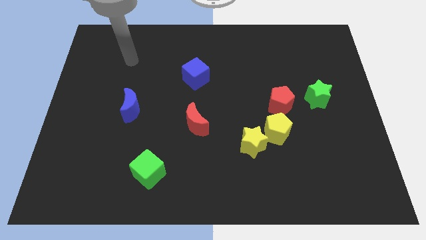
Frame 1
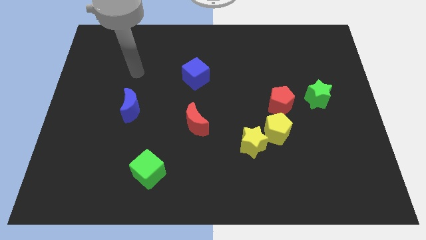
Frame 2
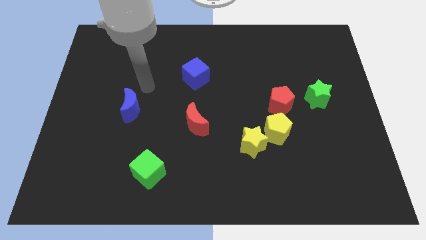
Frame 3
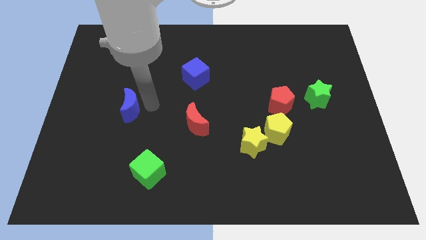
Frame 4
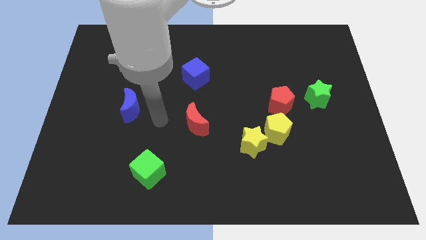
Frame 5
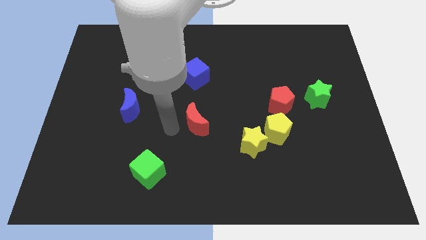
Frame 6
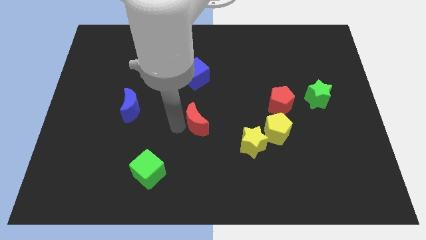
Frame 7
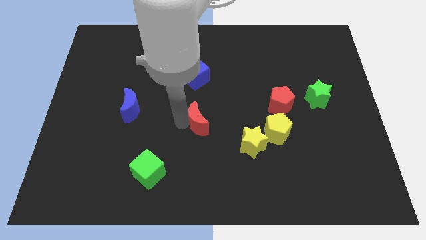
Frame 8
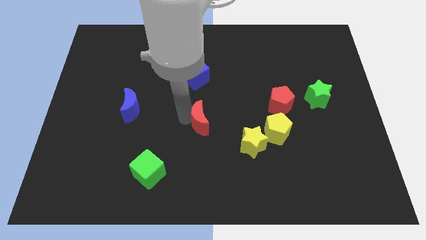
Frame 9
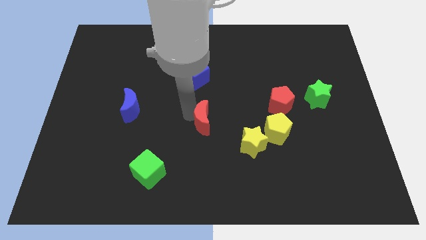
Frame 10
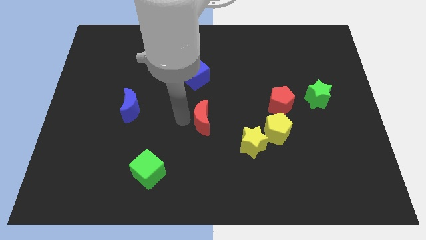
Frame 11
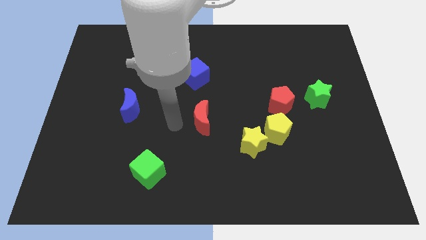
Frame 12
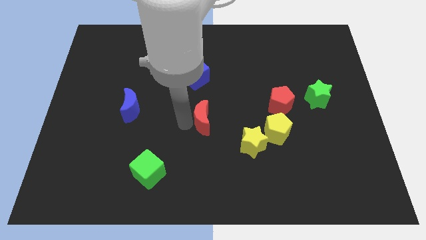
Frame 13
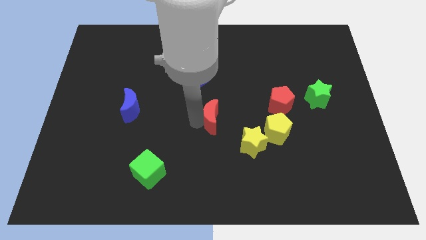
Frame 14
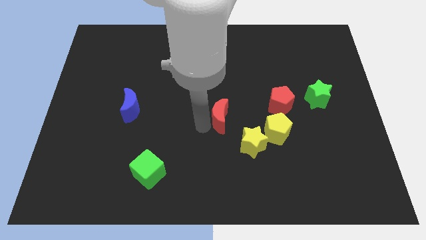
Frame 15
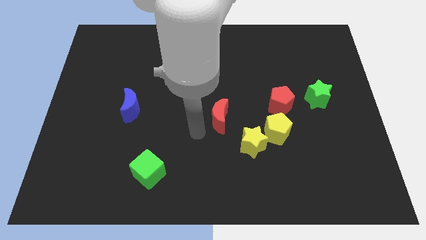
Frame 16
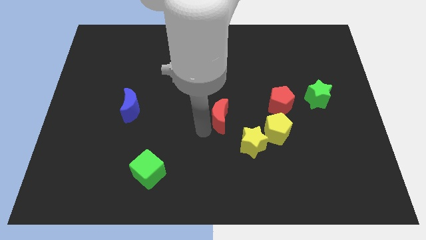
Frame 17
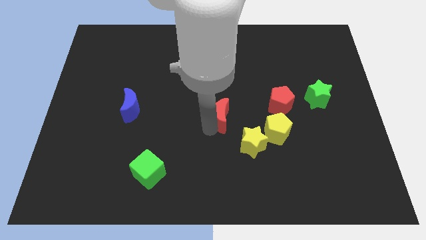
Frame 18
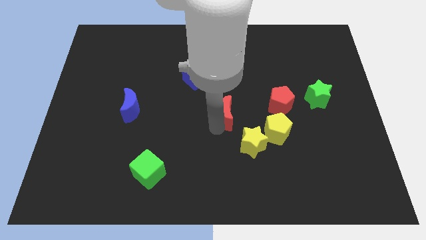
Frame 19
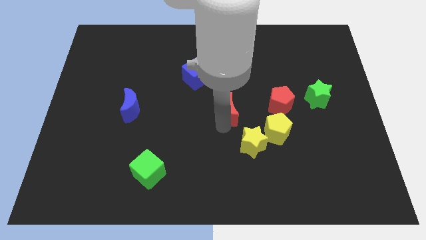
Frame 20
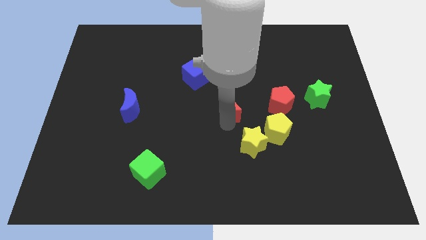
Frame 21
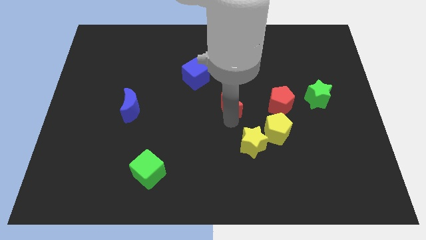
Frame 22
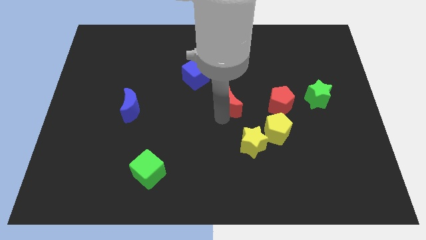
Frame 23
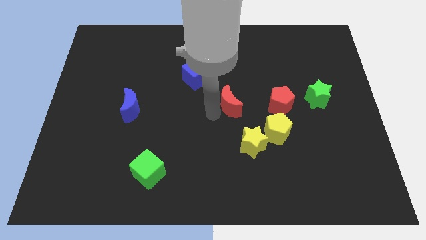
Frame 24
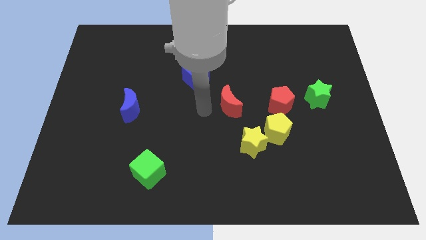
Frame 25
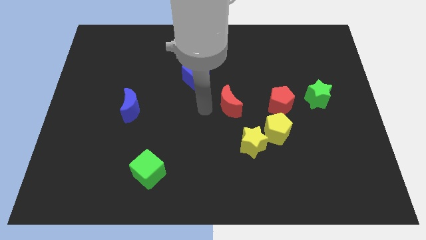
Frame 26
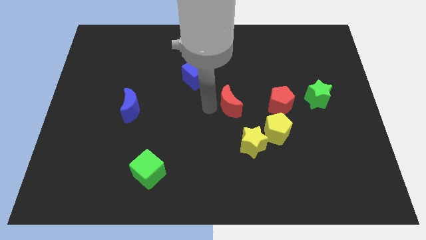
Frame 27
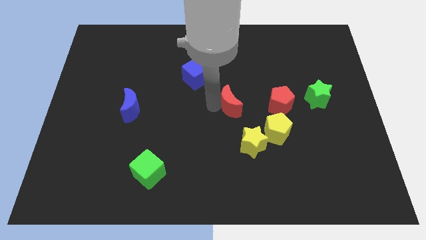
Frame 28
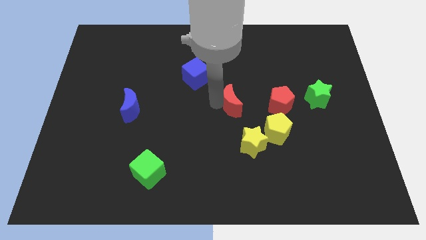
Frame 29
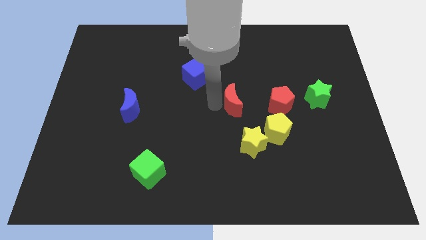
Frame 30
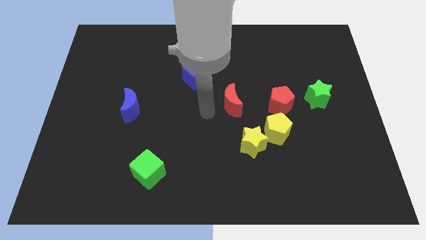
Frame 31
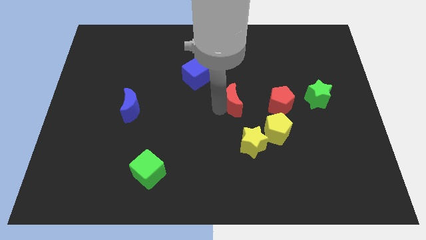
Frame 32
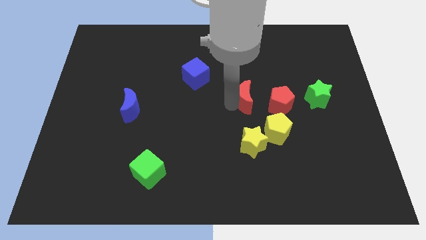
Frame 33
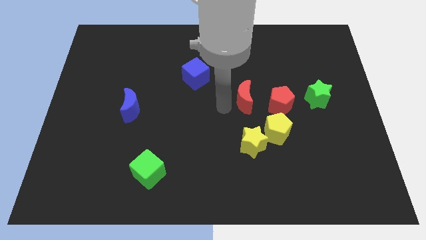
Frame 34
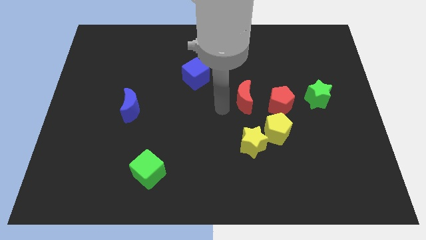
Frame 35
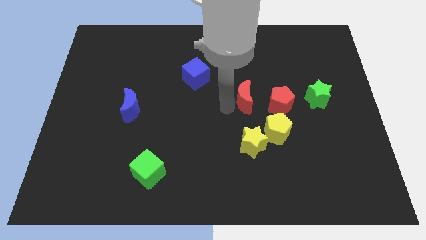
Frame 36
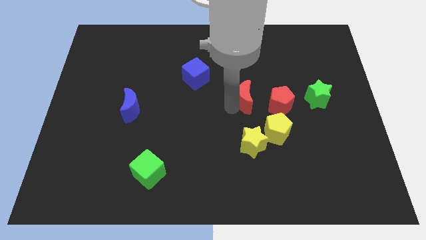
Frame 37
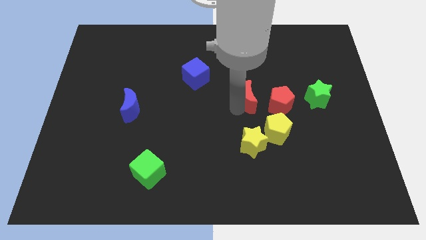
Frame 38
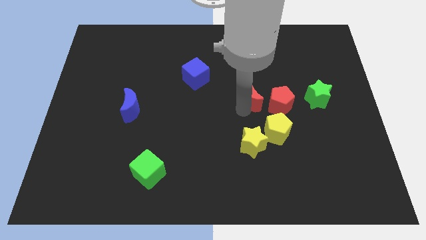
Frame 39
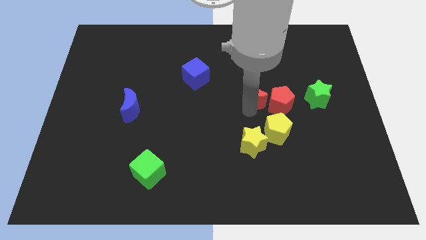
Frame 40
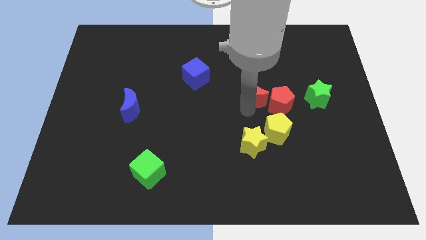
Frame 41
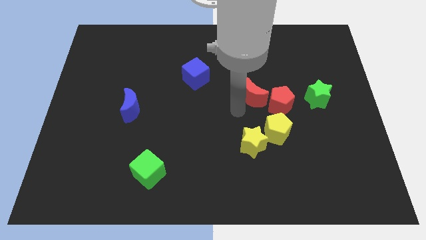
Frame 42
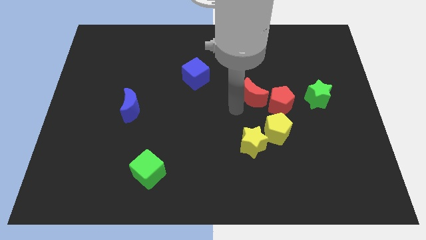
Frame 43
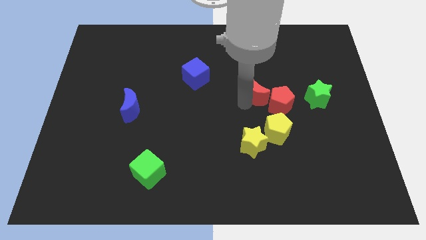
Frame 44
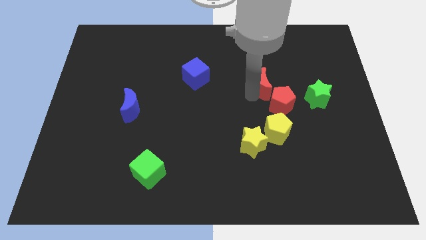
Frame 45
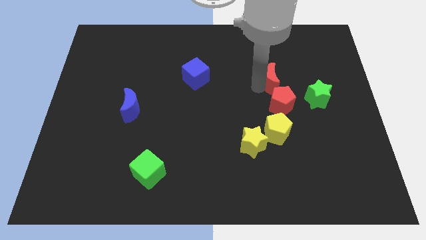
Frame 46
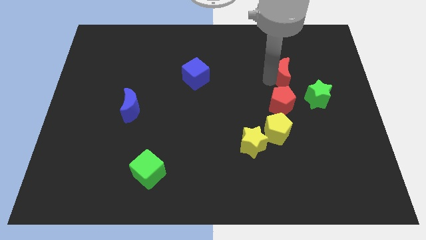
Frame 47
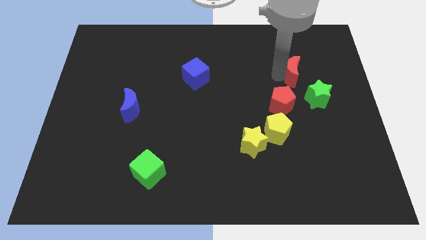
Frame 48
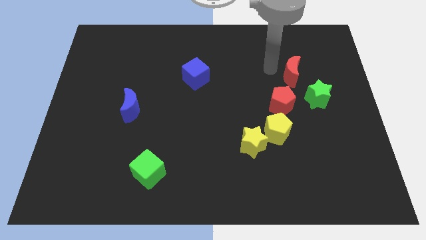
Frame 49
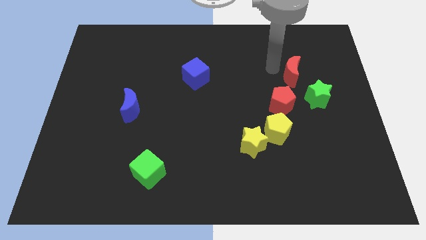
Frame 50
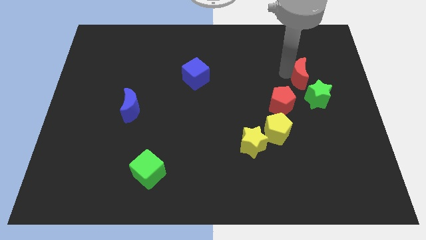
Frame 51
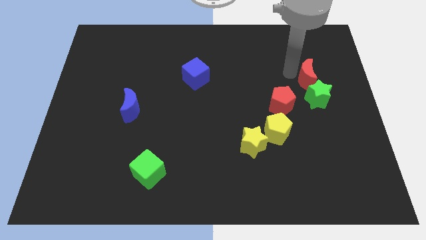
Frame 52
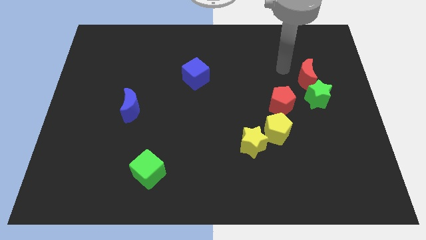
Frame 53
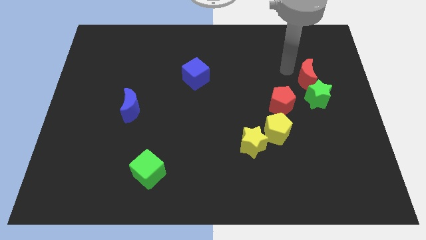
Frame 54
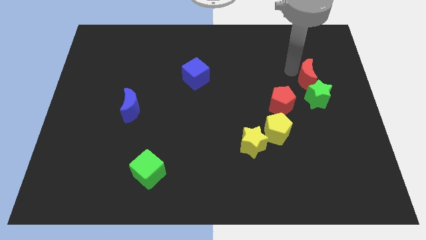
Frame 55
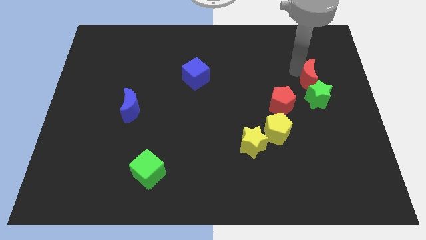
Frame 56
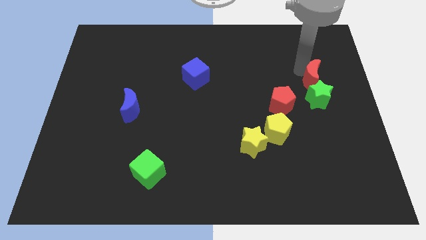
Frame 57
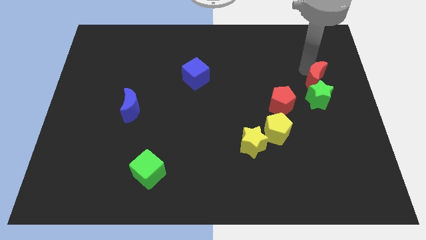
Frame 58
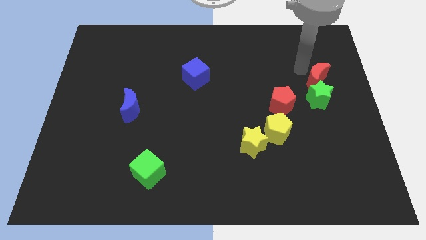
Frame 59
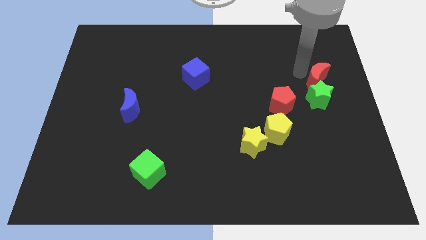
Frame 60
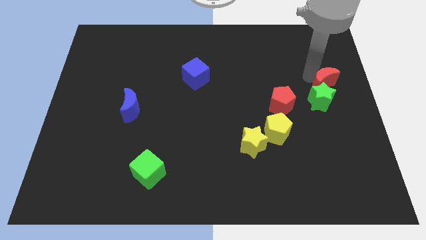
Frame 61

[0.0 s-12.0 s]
put the red moon to the right side of the board

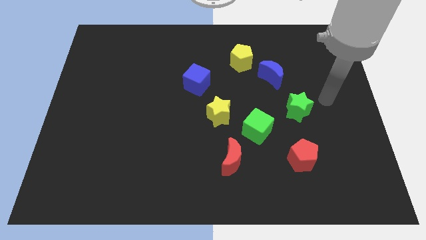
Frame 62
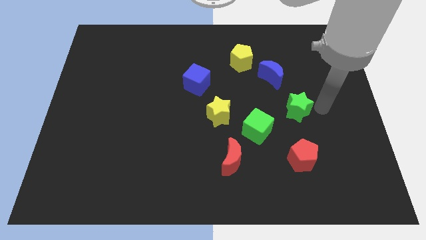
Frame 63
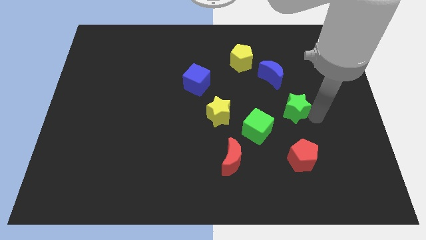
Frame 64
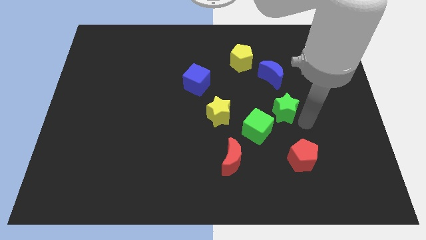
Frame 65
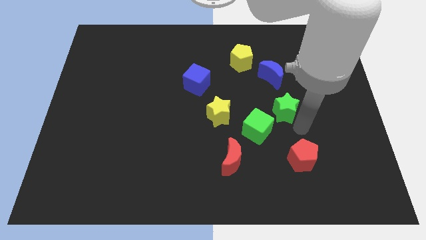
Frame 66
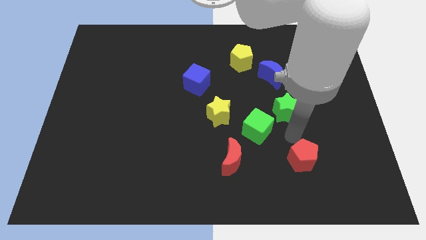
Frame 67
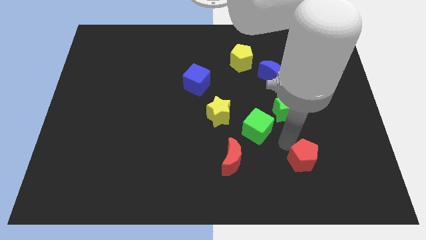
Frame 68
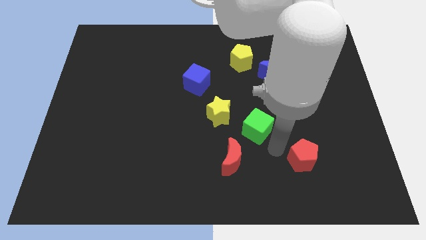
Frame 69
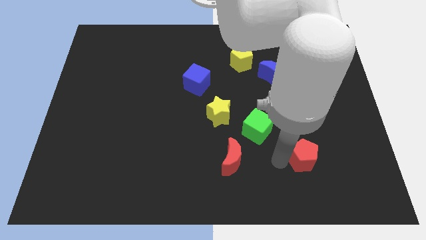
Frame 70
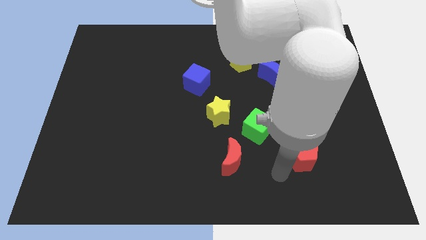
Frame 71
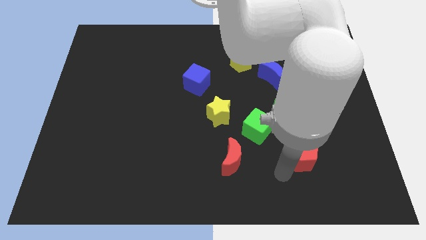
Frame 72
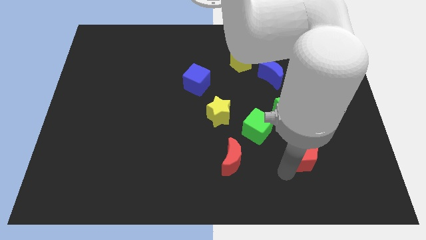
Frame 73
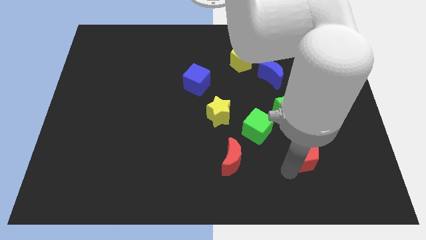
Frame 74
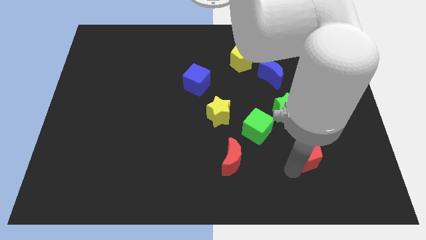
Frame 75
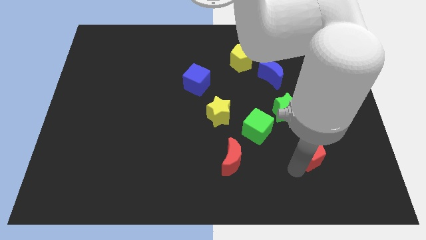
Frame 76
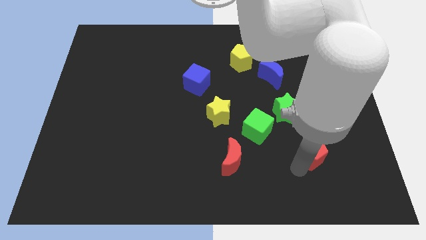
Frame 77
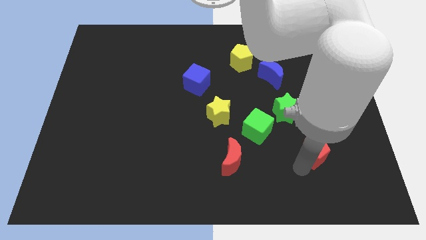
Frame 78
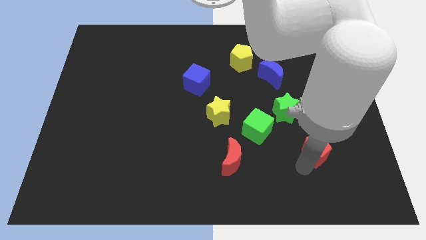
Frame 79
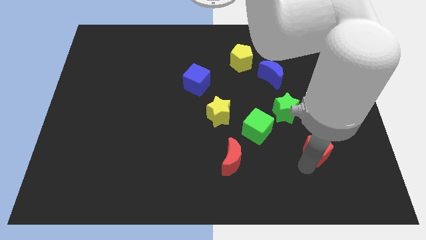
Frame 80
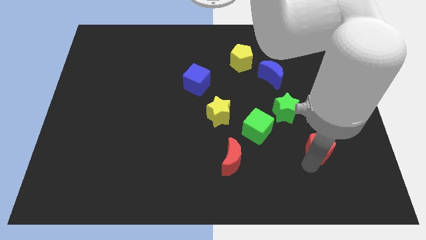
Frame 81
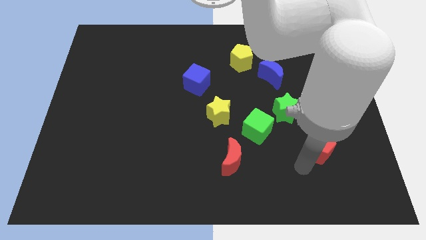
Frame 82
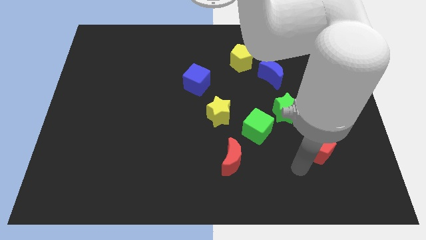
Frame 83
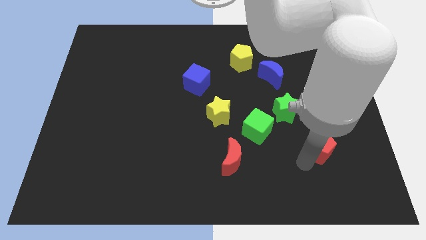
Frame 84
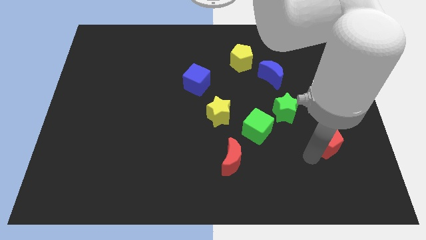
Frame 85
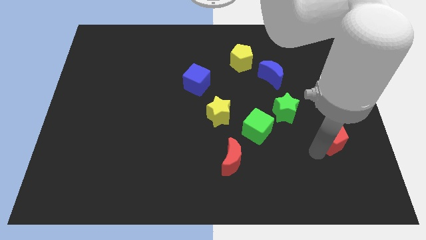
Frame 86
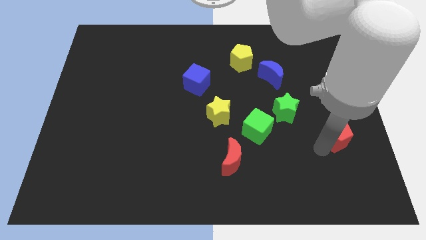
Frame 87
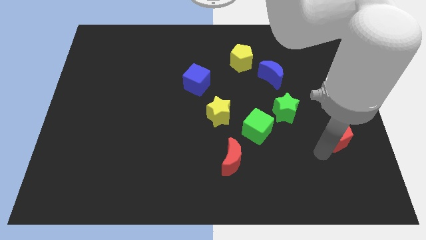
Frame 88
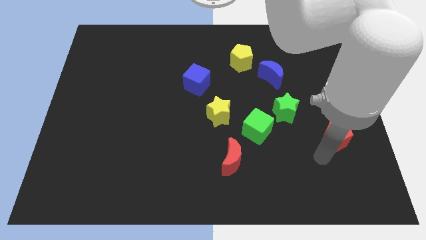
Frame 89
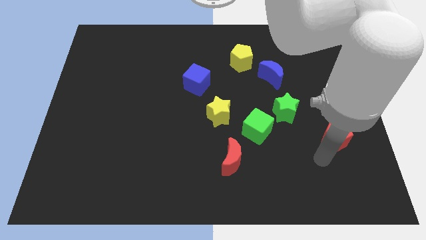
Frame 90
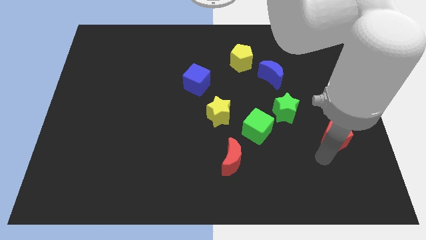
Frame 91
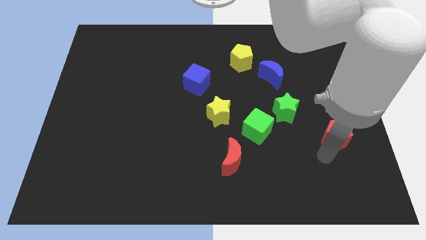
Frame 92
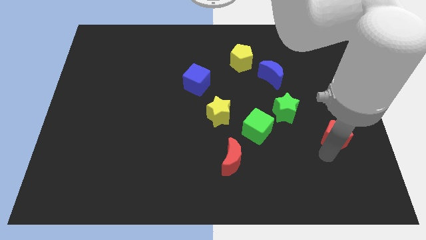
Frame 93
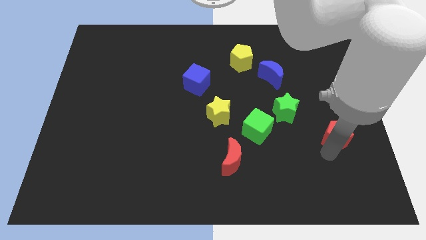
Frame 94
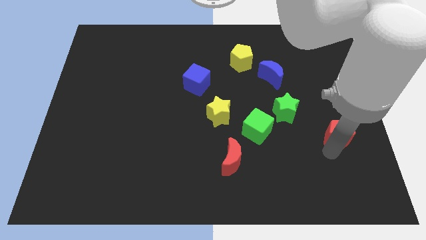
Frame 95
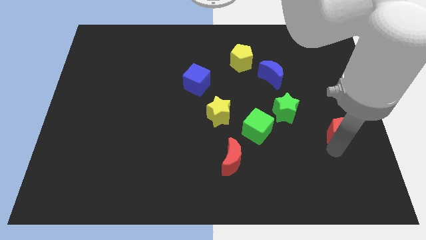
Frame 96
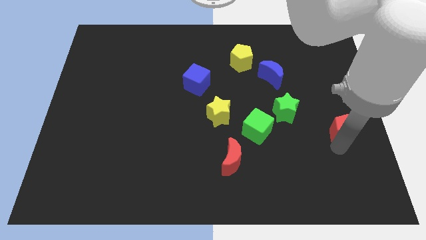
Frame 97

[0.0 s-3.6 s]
put the red pentagon to the right side of the board
